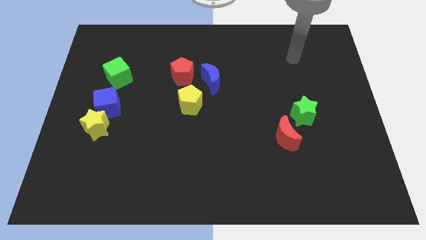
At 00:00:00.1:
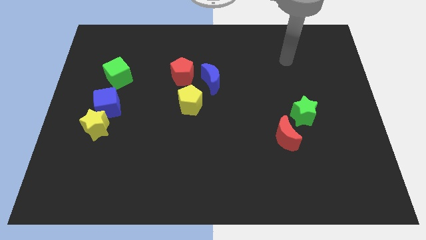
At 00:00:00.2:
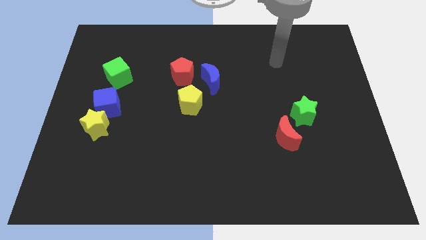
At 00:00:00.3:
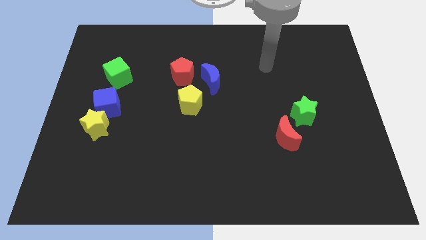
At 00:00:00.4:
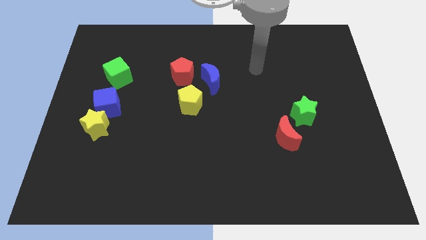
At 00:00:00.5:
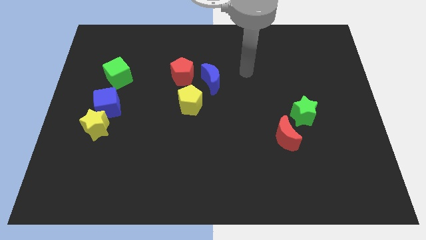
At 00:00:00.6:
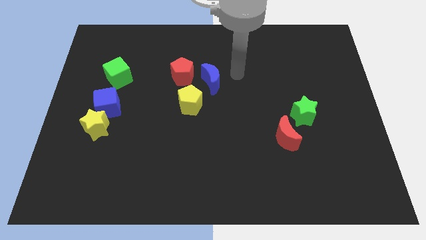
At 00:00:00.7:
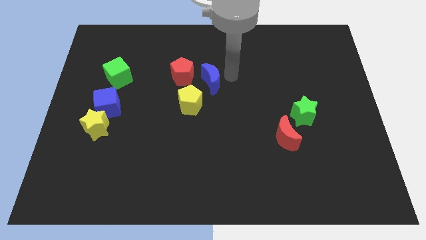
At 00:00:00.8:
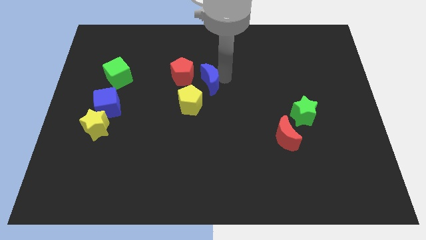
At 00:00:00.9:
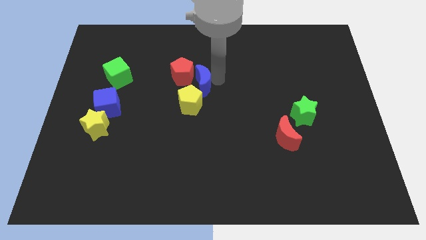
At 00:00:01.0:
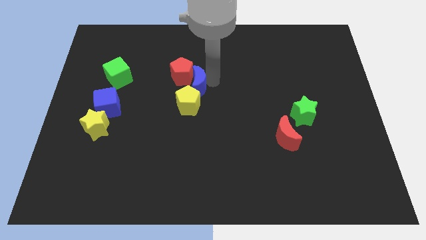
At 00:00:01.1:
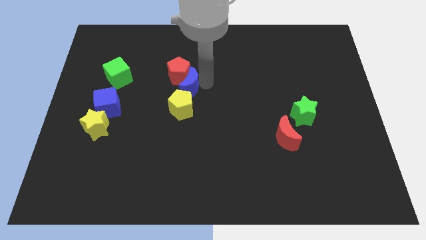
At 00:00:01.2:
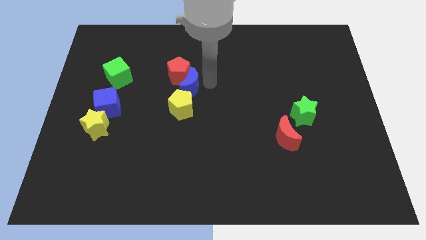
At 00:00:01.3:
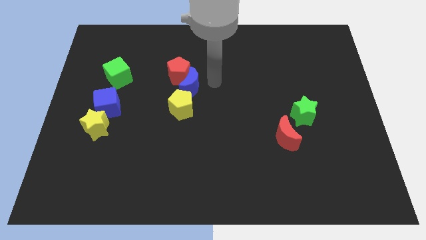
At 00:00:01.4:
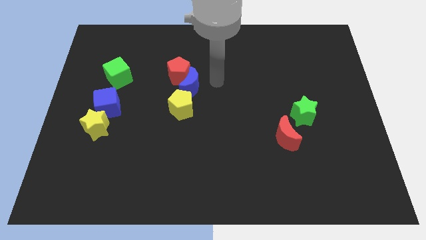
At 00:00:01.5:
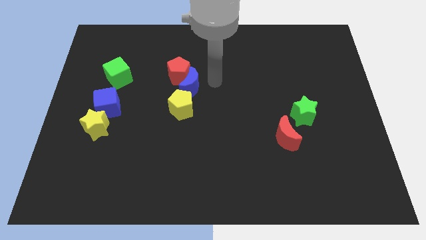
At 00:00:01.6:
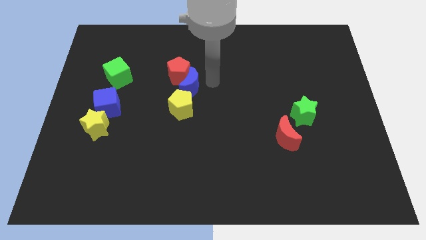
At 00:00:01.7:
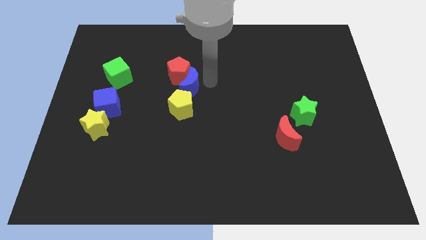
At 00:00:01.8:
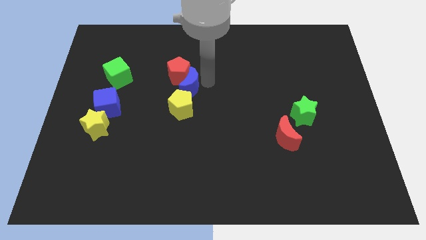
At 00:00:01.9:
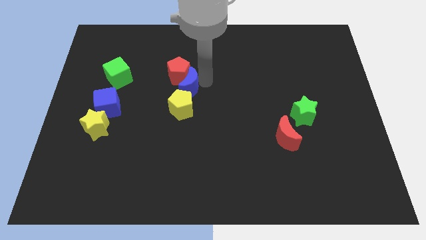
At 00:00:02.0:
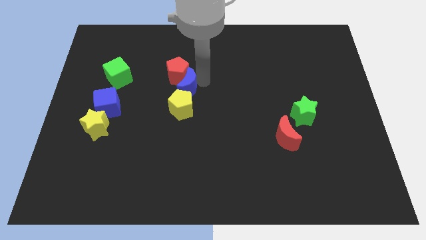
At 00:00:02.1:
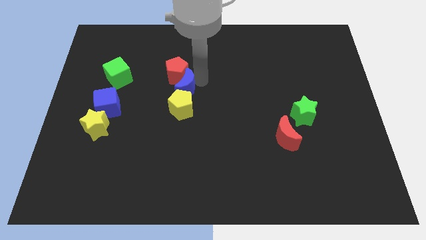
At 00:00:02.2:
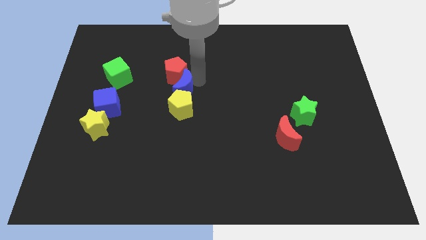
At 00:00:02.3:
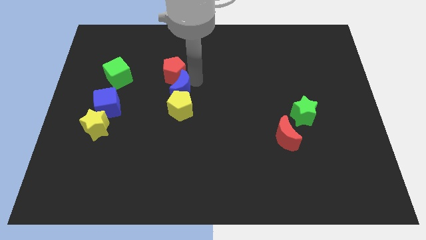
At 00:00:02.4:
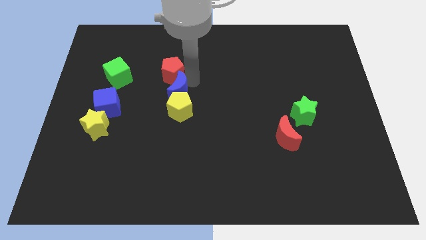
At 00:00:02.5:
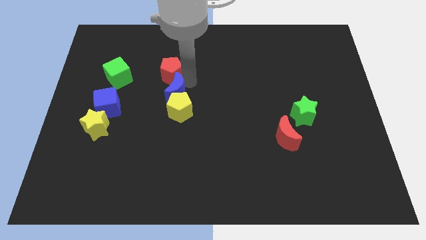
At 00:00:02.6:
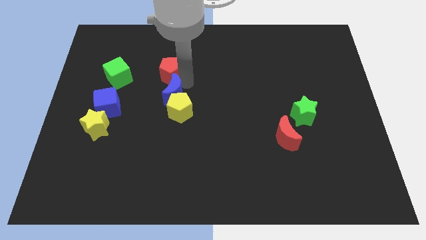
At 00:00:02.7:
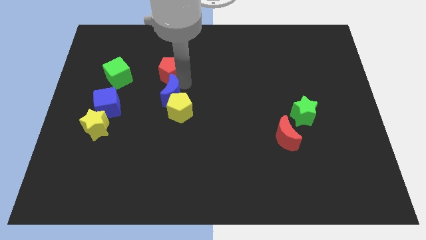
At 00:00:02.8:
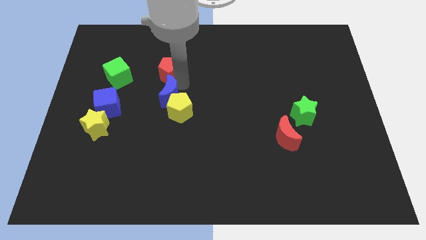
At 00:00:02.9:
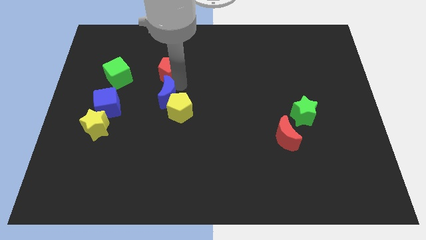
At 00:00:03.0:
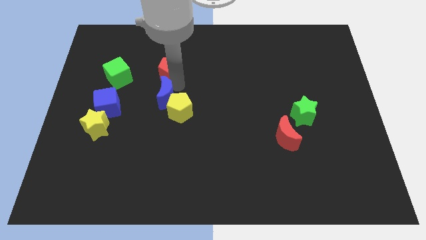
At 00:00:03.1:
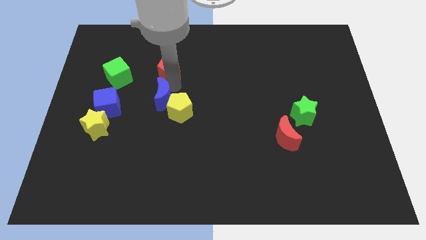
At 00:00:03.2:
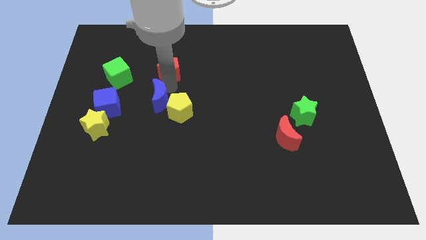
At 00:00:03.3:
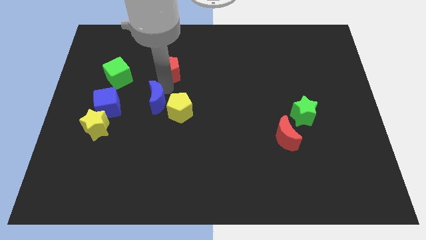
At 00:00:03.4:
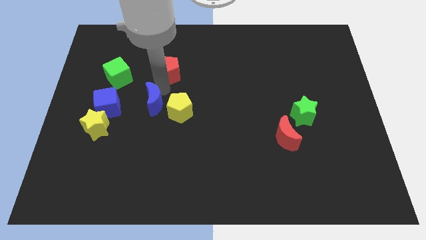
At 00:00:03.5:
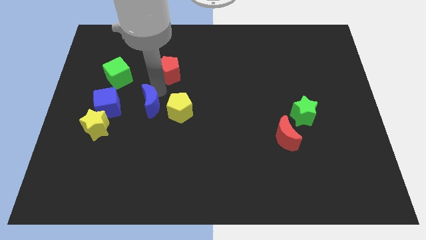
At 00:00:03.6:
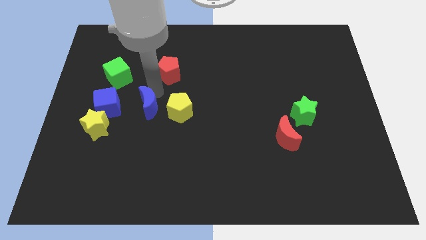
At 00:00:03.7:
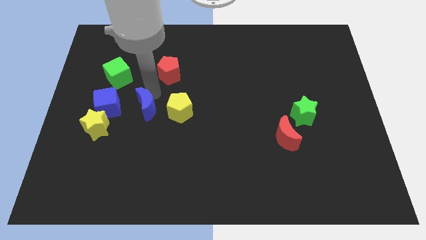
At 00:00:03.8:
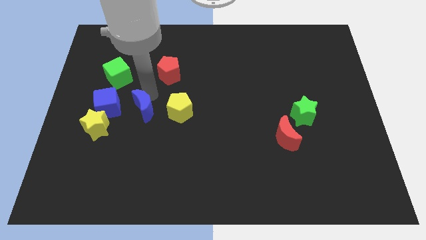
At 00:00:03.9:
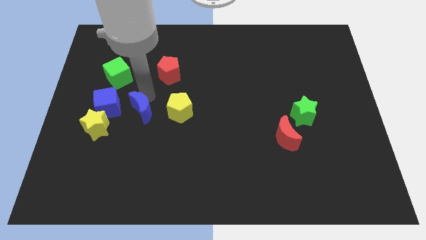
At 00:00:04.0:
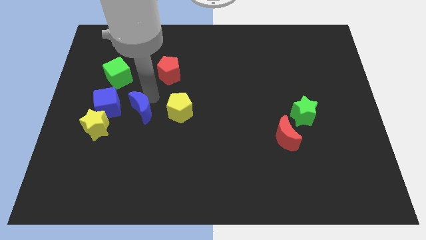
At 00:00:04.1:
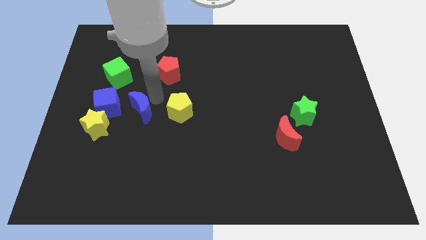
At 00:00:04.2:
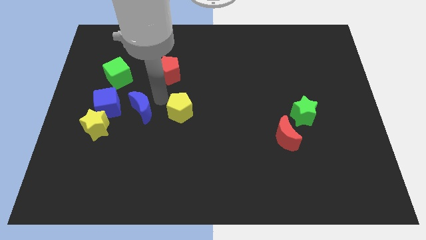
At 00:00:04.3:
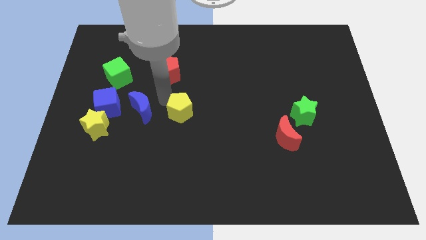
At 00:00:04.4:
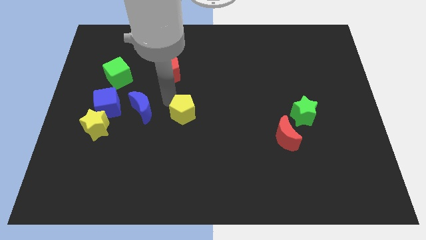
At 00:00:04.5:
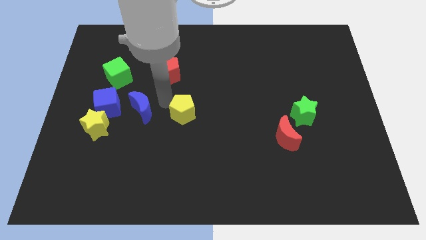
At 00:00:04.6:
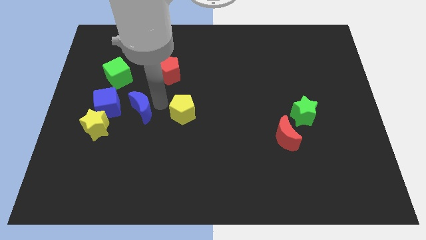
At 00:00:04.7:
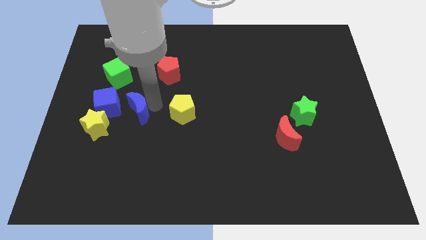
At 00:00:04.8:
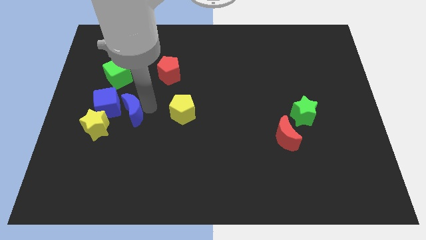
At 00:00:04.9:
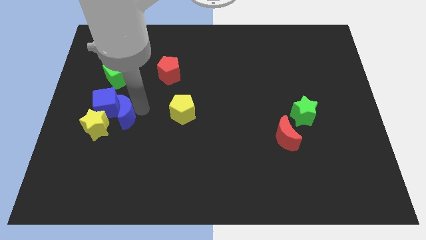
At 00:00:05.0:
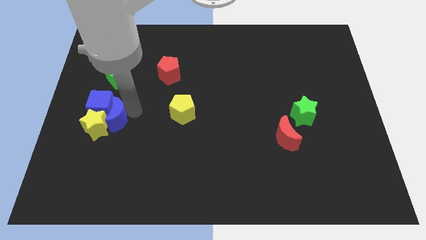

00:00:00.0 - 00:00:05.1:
push the blue moon towards the yellow star

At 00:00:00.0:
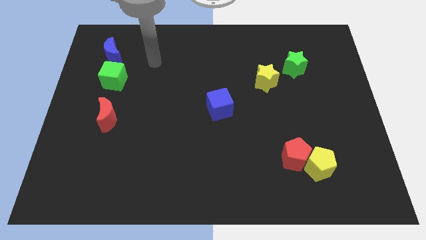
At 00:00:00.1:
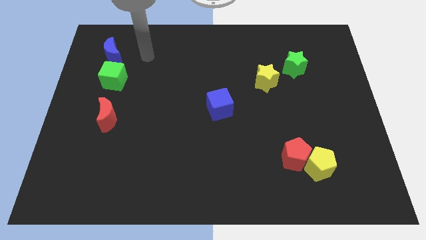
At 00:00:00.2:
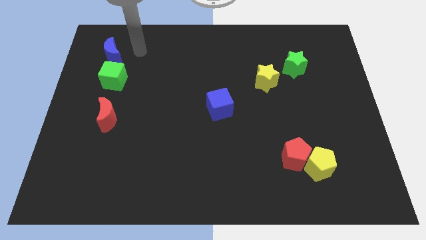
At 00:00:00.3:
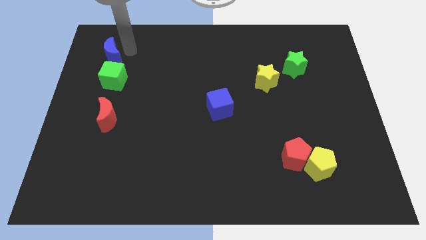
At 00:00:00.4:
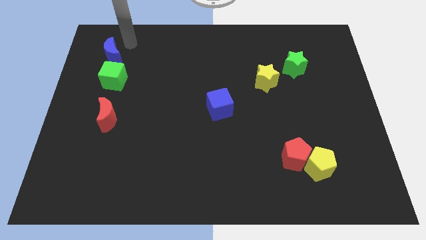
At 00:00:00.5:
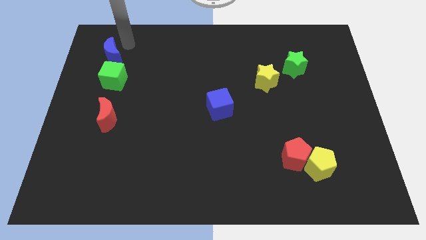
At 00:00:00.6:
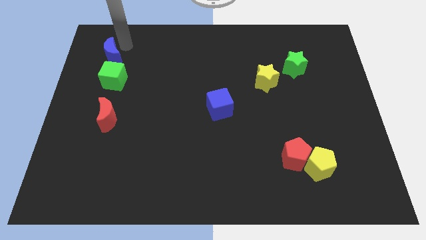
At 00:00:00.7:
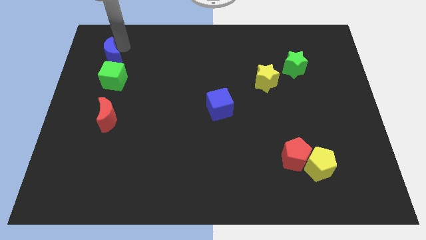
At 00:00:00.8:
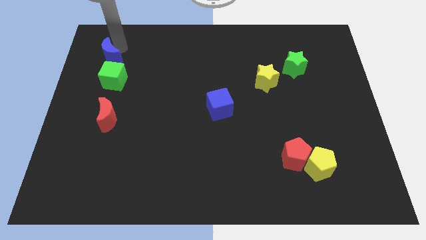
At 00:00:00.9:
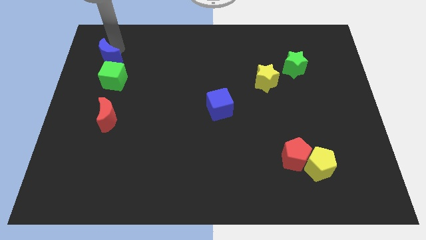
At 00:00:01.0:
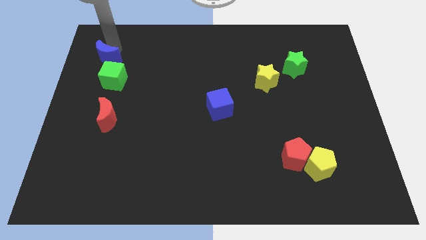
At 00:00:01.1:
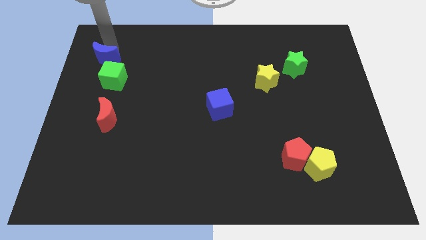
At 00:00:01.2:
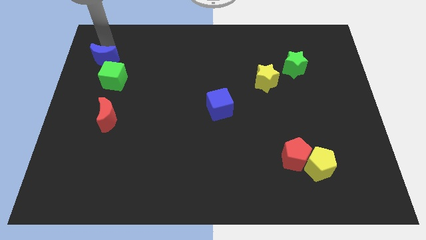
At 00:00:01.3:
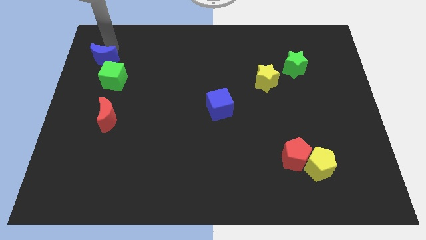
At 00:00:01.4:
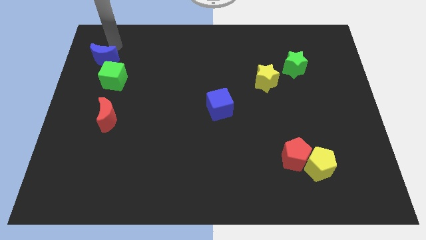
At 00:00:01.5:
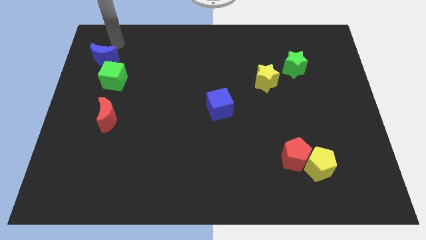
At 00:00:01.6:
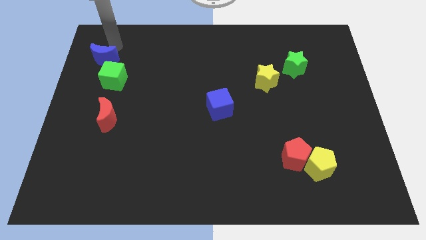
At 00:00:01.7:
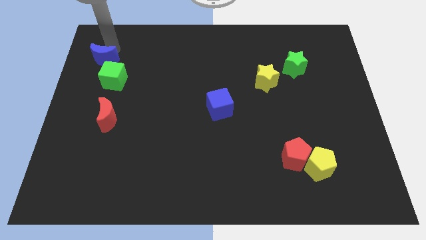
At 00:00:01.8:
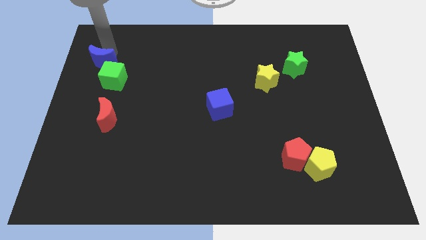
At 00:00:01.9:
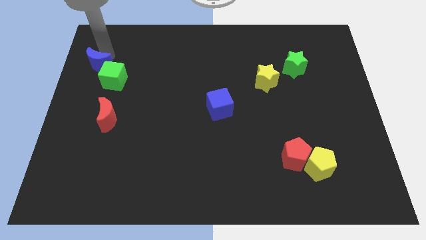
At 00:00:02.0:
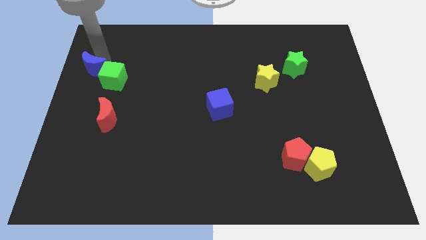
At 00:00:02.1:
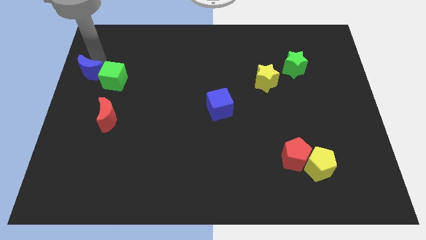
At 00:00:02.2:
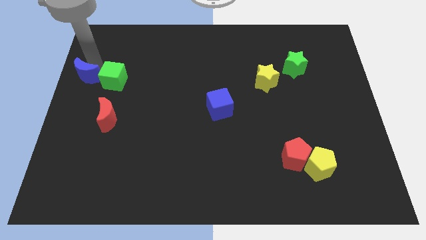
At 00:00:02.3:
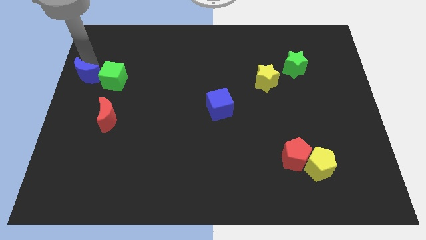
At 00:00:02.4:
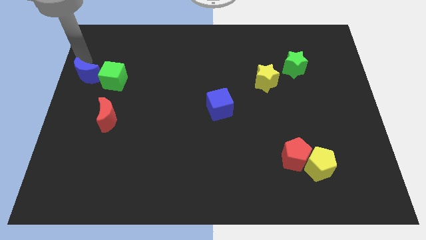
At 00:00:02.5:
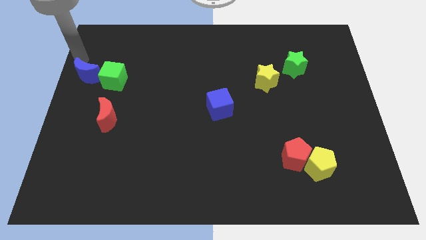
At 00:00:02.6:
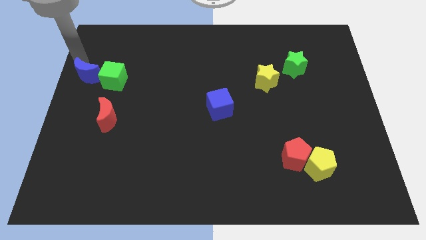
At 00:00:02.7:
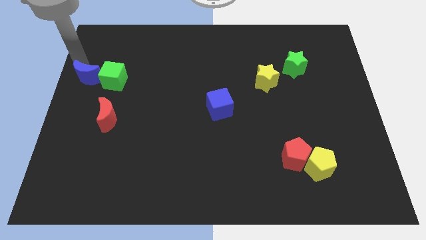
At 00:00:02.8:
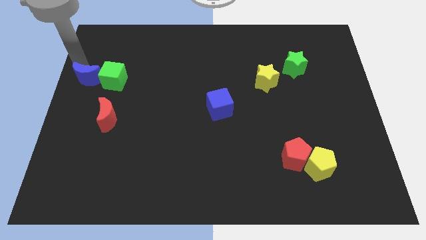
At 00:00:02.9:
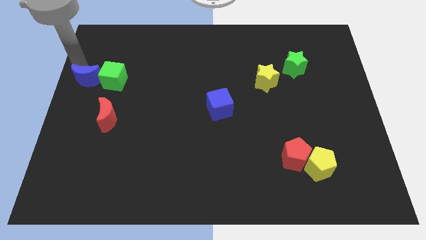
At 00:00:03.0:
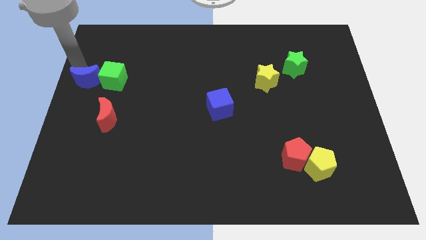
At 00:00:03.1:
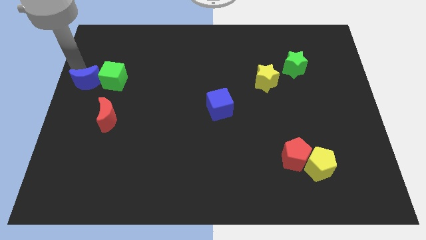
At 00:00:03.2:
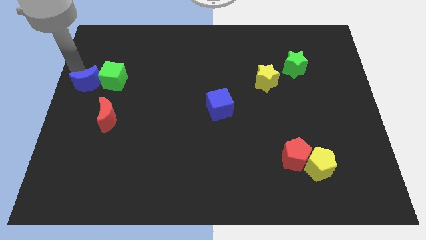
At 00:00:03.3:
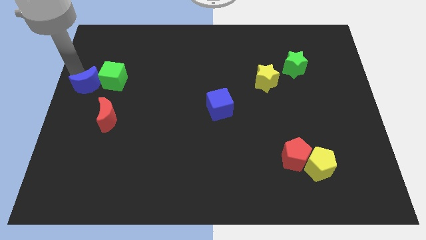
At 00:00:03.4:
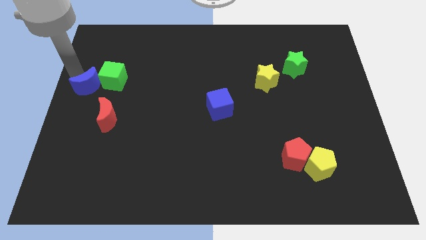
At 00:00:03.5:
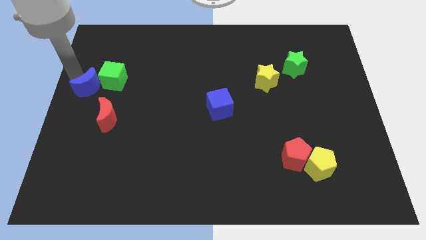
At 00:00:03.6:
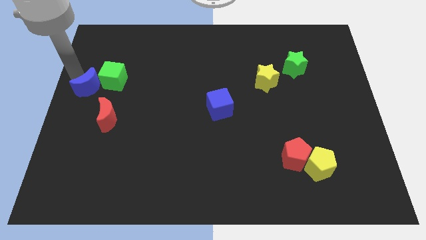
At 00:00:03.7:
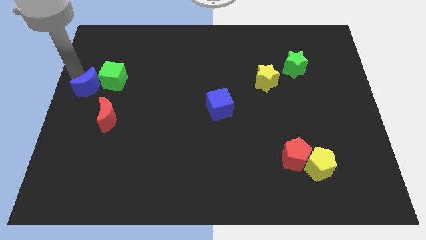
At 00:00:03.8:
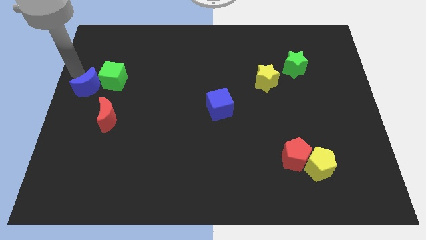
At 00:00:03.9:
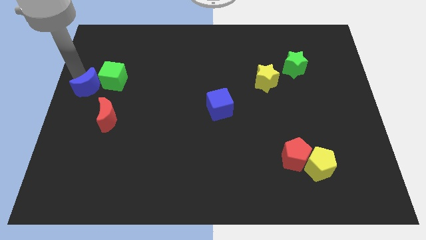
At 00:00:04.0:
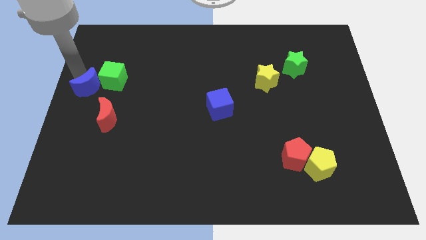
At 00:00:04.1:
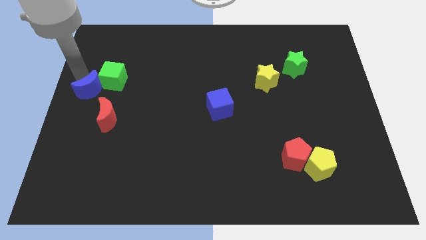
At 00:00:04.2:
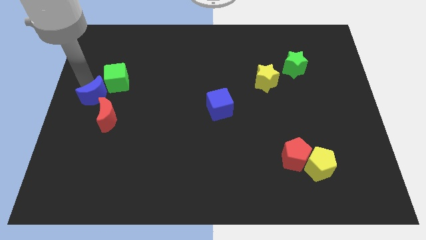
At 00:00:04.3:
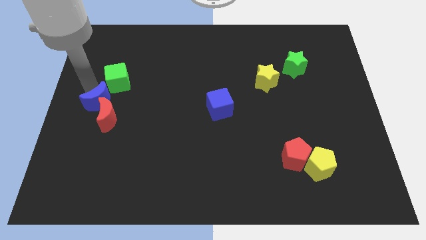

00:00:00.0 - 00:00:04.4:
slide the blue moon close to the red moon
